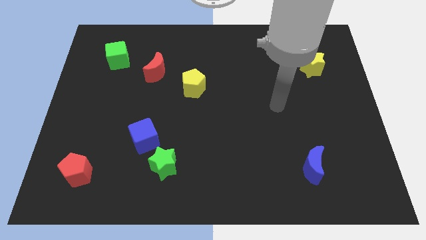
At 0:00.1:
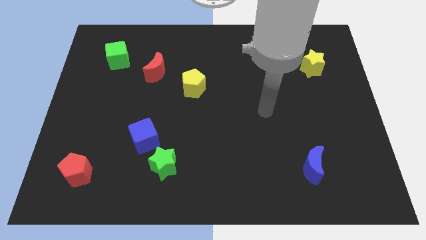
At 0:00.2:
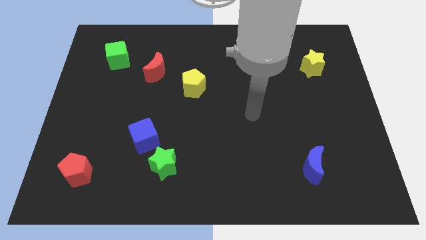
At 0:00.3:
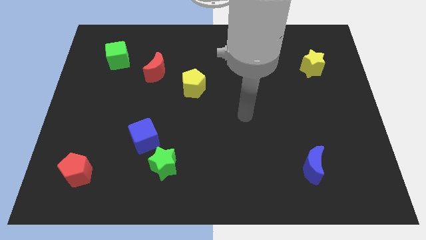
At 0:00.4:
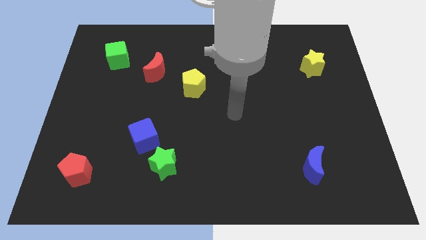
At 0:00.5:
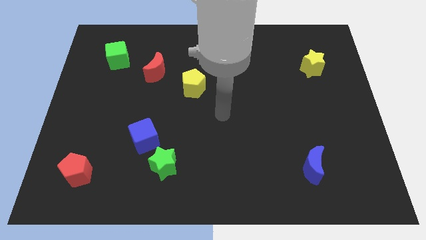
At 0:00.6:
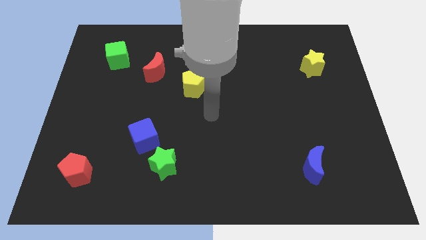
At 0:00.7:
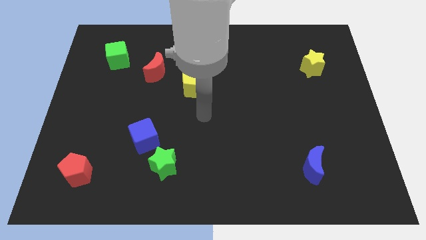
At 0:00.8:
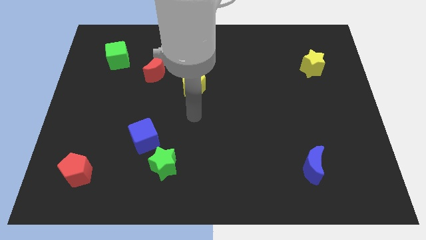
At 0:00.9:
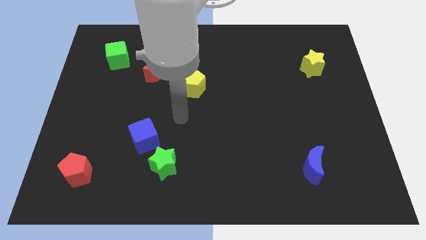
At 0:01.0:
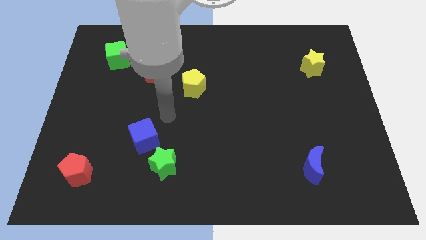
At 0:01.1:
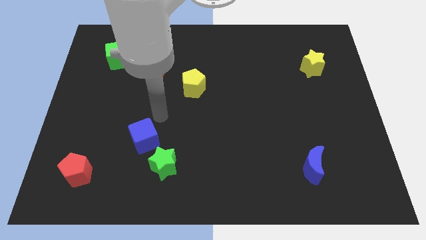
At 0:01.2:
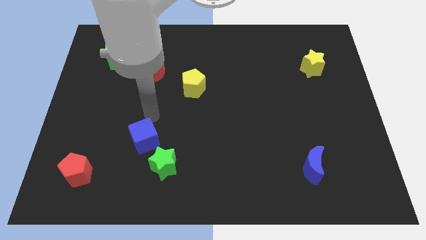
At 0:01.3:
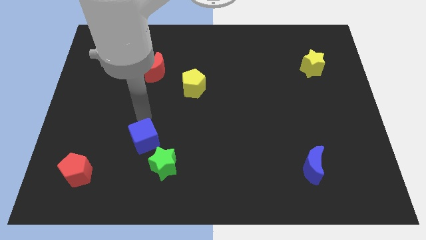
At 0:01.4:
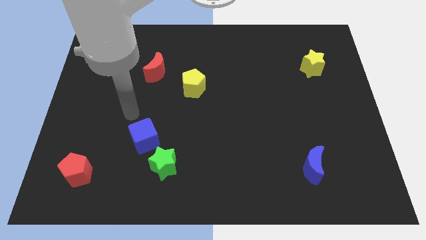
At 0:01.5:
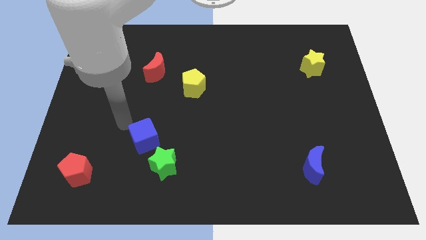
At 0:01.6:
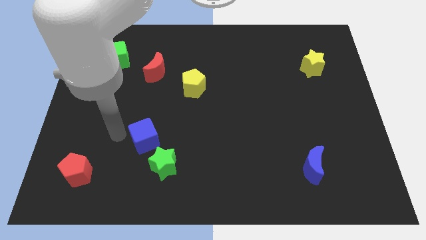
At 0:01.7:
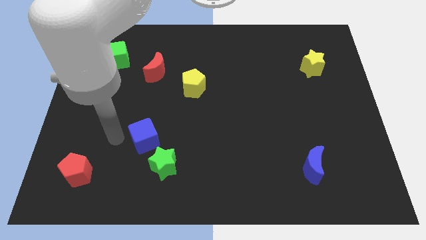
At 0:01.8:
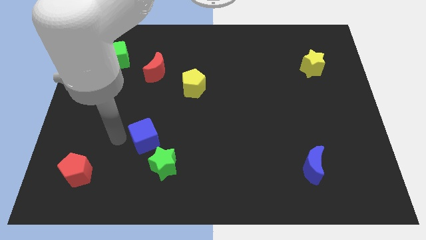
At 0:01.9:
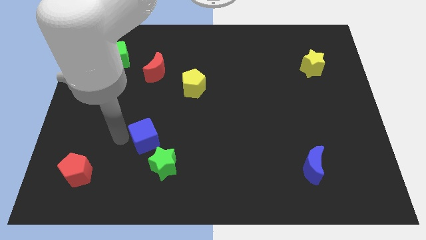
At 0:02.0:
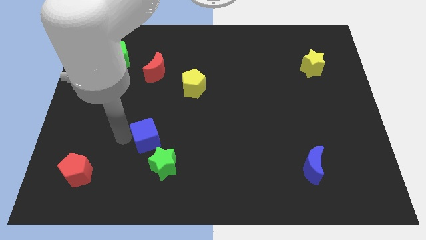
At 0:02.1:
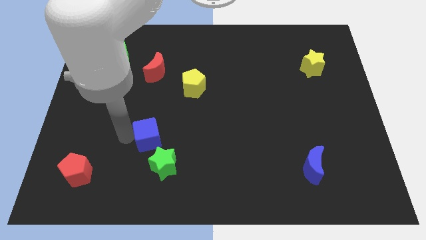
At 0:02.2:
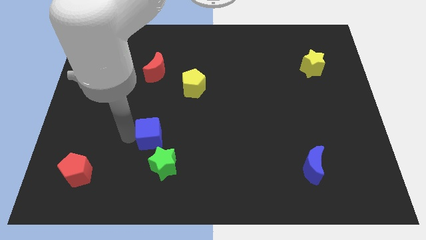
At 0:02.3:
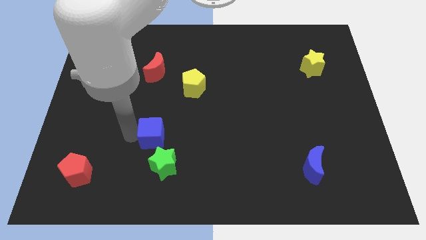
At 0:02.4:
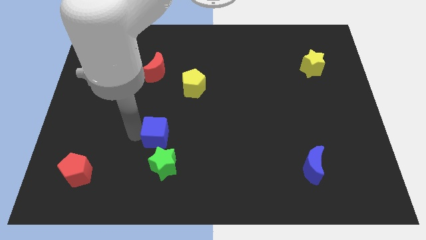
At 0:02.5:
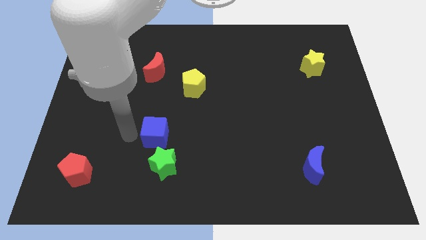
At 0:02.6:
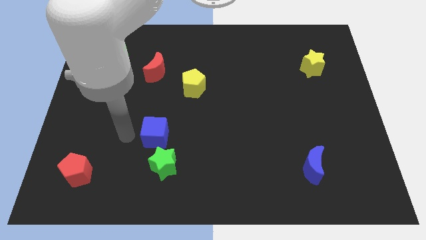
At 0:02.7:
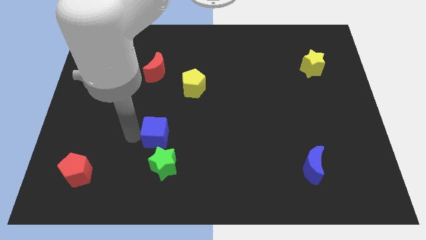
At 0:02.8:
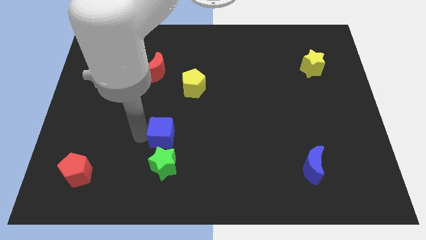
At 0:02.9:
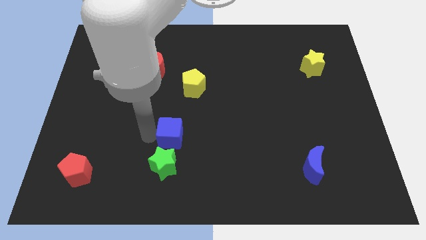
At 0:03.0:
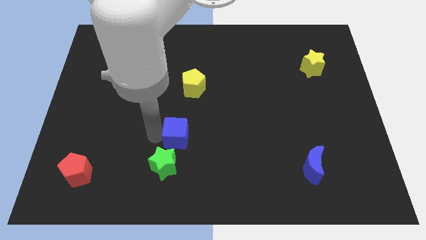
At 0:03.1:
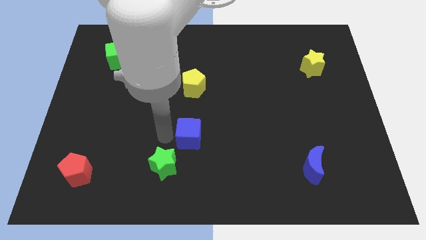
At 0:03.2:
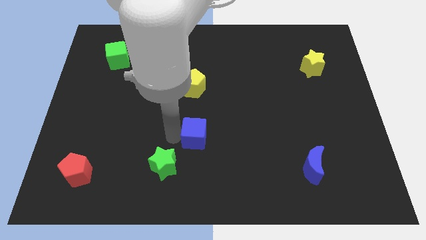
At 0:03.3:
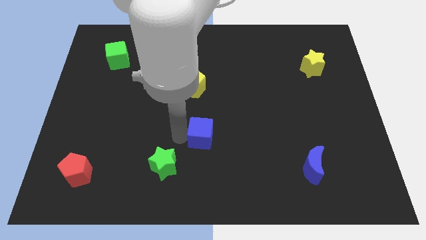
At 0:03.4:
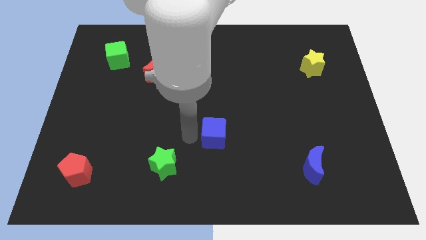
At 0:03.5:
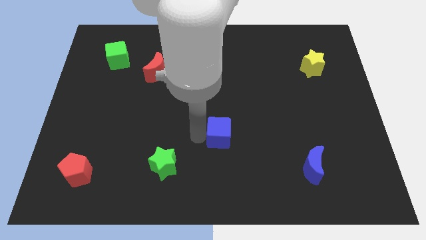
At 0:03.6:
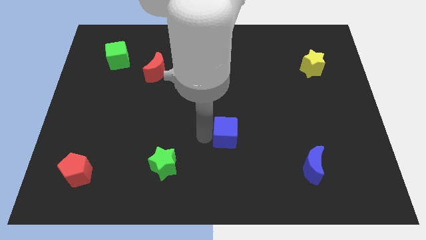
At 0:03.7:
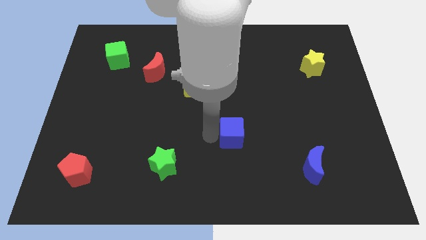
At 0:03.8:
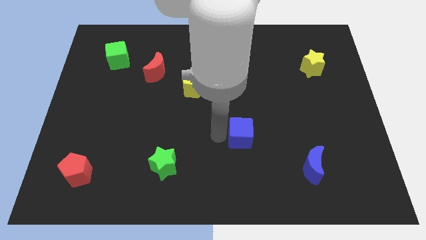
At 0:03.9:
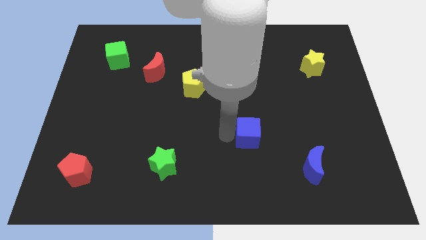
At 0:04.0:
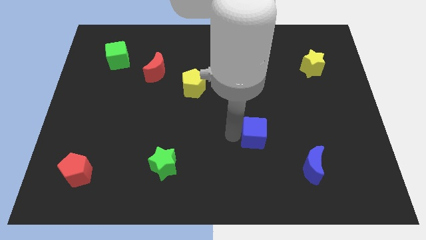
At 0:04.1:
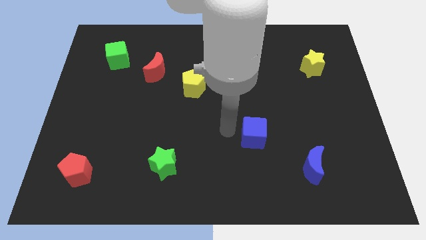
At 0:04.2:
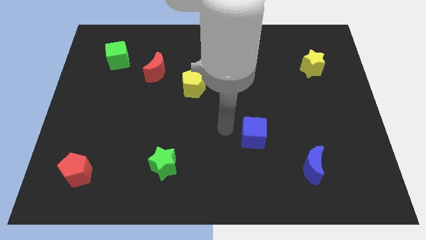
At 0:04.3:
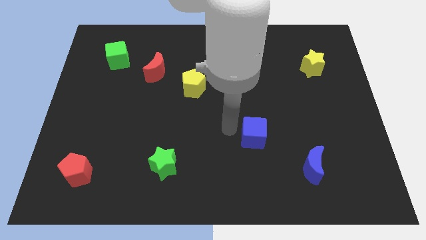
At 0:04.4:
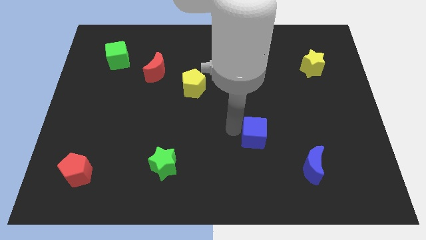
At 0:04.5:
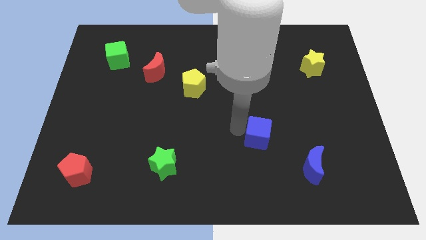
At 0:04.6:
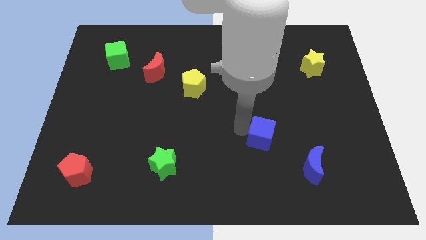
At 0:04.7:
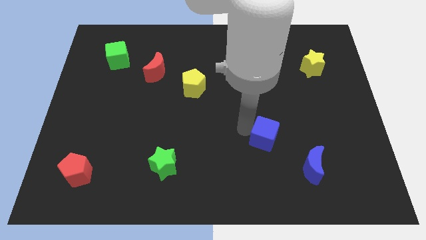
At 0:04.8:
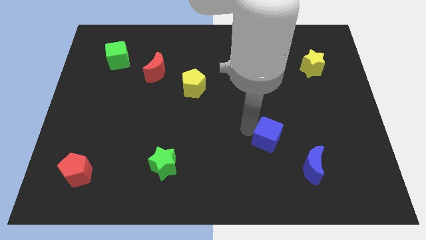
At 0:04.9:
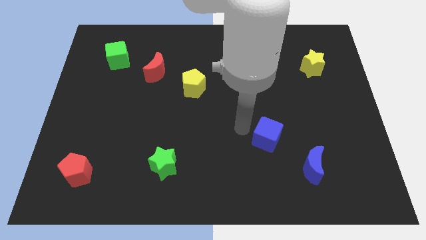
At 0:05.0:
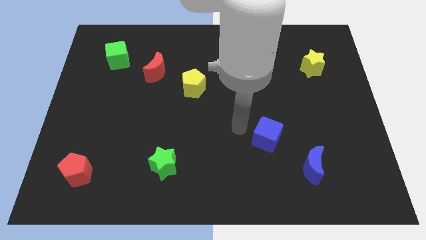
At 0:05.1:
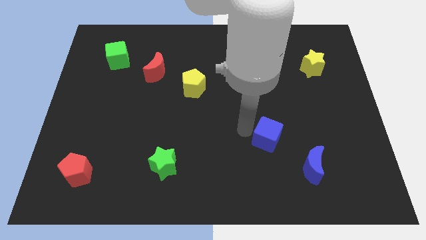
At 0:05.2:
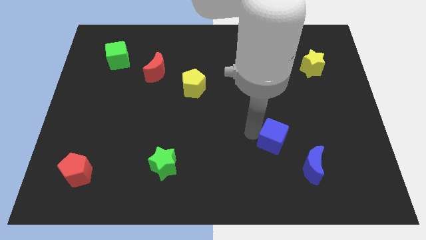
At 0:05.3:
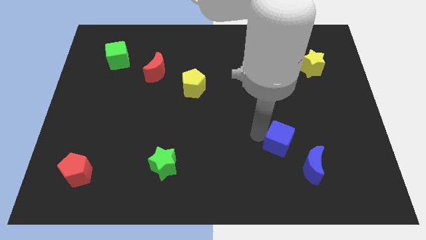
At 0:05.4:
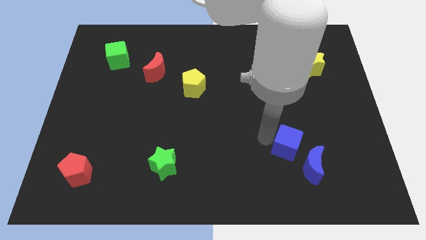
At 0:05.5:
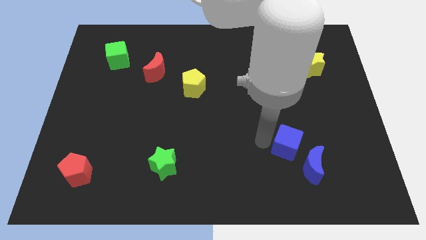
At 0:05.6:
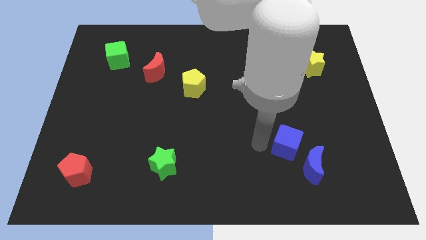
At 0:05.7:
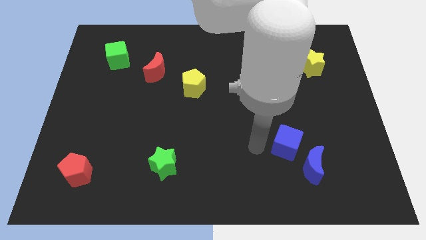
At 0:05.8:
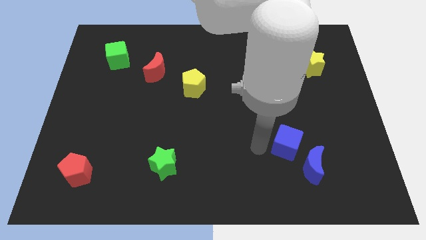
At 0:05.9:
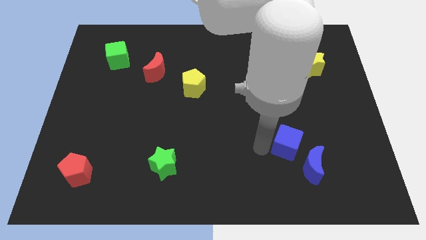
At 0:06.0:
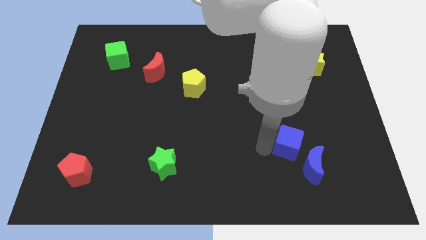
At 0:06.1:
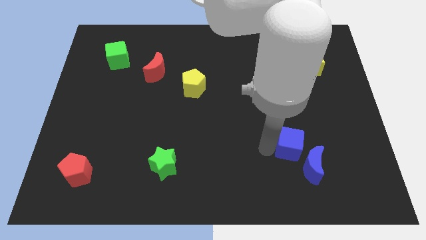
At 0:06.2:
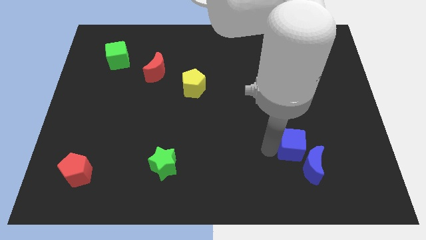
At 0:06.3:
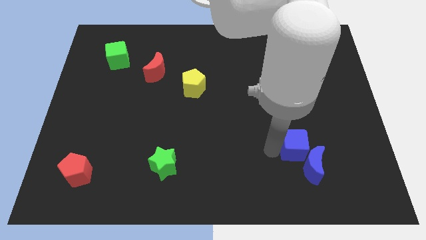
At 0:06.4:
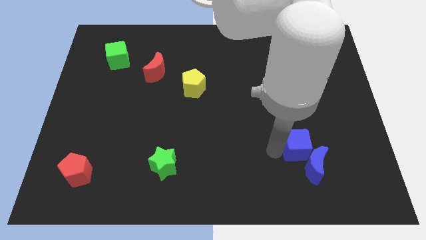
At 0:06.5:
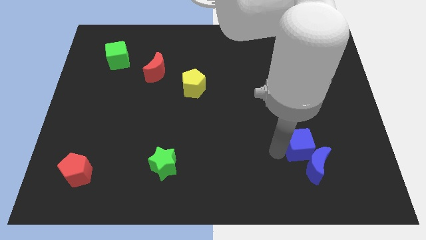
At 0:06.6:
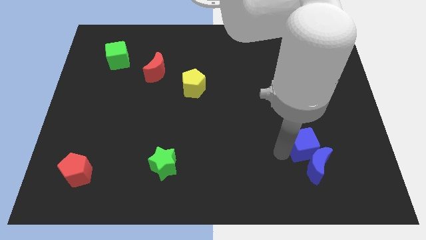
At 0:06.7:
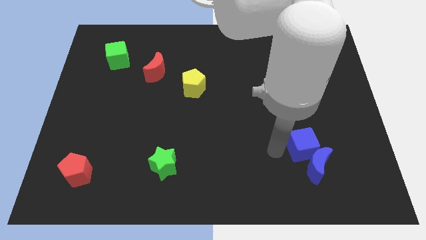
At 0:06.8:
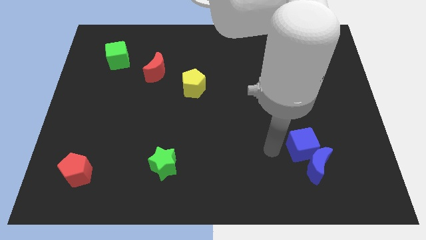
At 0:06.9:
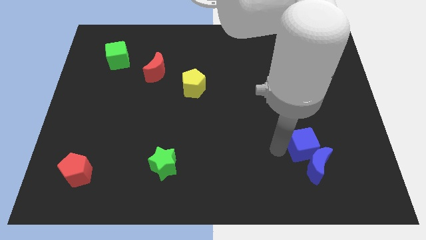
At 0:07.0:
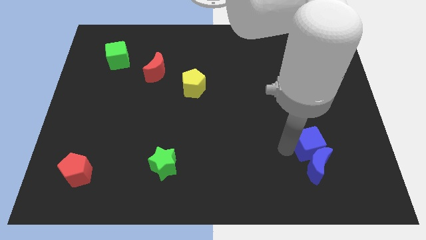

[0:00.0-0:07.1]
push the blue cube diagonally up and to the right of the blue moon
